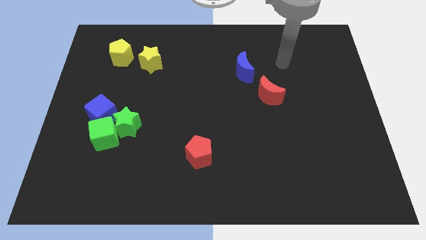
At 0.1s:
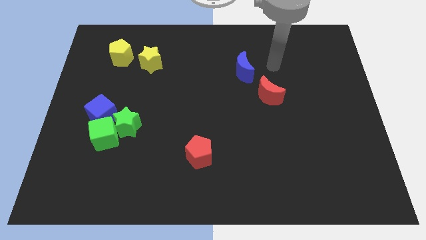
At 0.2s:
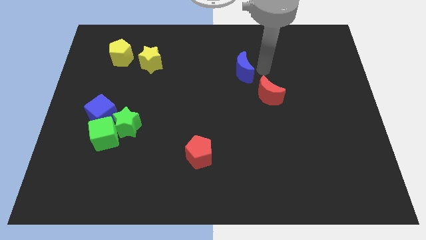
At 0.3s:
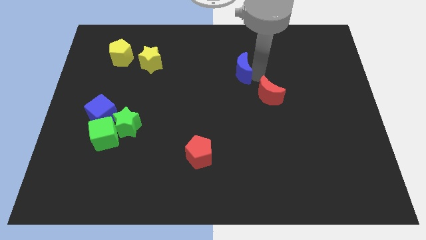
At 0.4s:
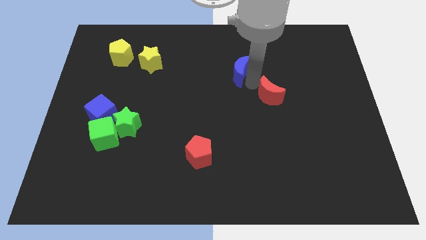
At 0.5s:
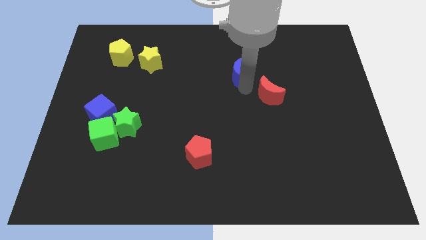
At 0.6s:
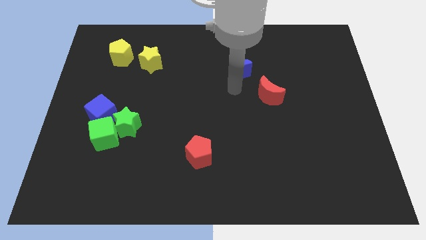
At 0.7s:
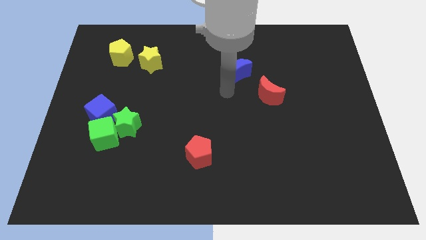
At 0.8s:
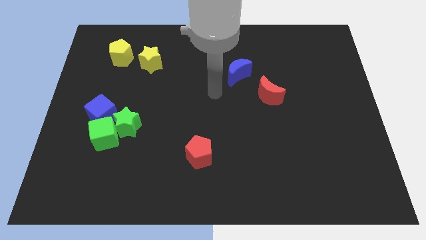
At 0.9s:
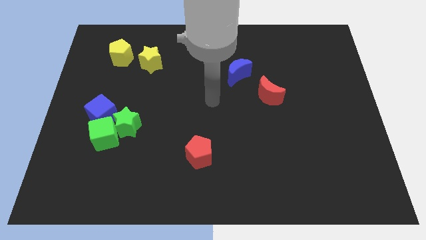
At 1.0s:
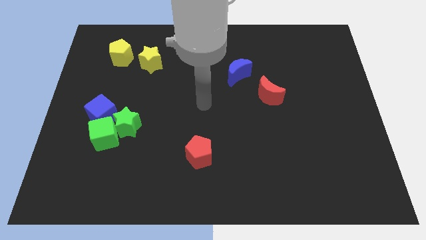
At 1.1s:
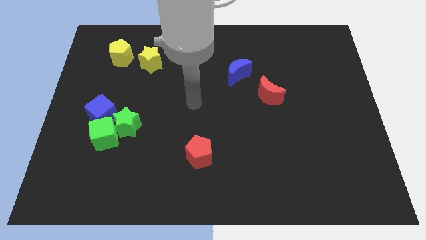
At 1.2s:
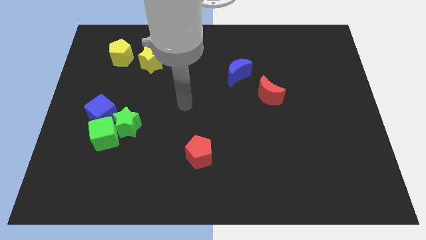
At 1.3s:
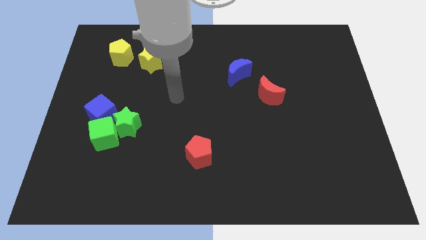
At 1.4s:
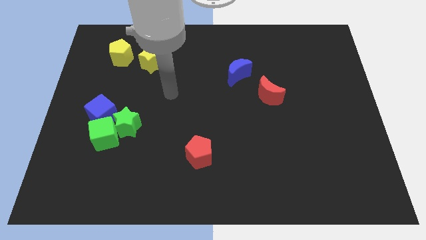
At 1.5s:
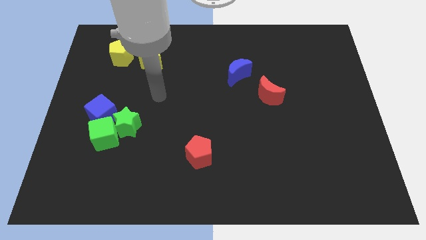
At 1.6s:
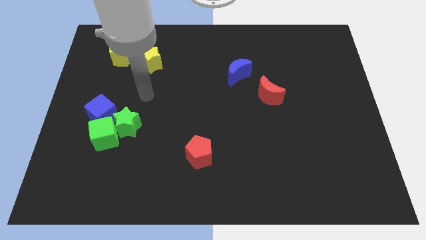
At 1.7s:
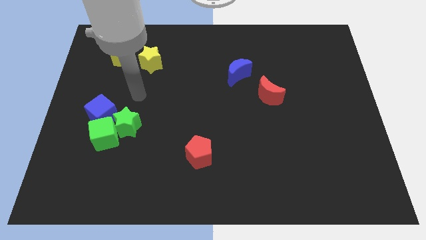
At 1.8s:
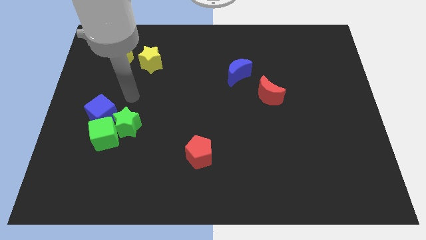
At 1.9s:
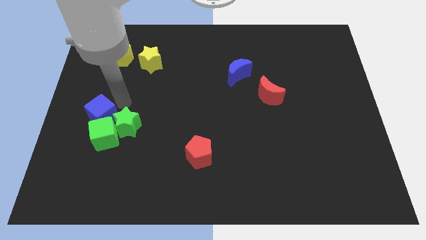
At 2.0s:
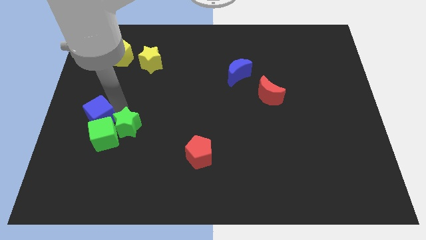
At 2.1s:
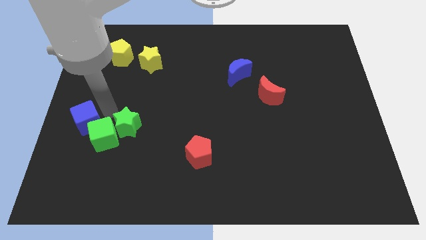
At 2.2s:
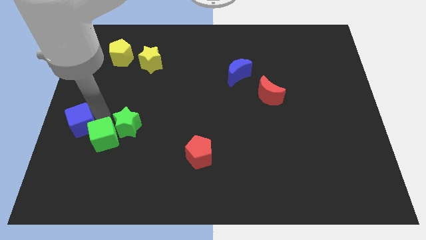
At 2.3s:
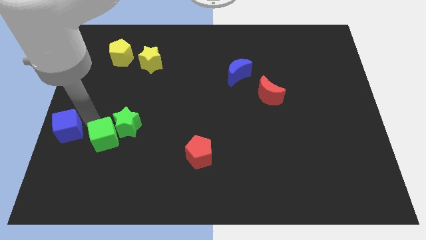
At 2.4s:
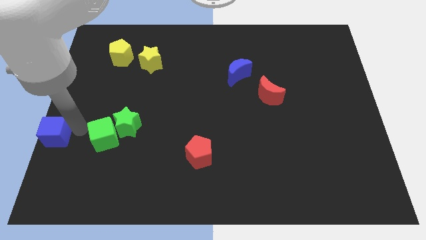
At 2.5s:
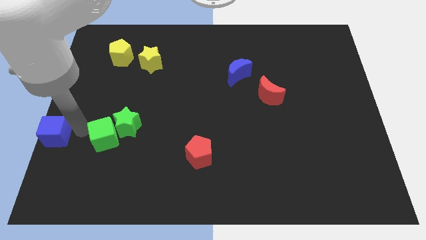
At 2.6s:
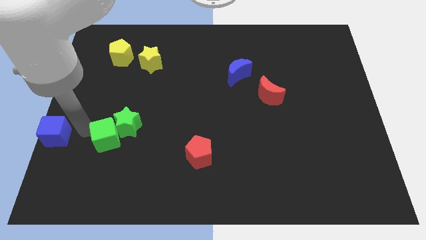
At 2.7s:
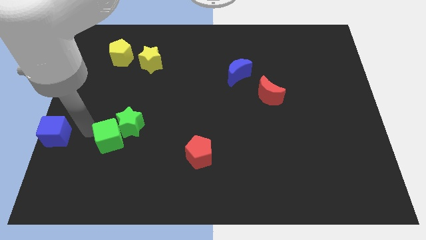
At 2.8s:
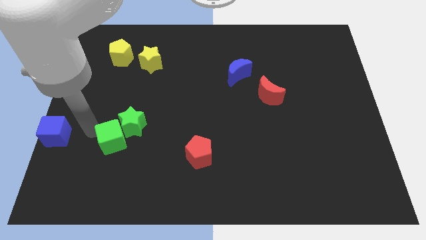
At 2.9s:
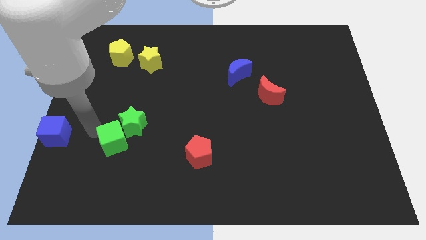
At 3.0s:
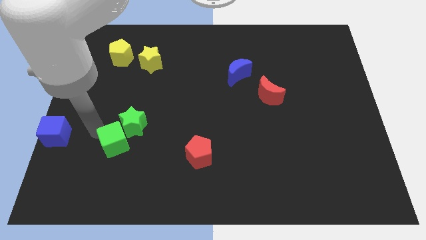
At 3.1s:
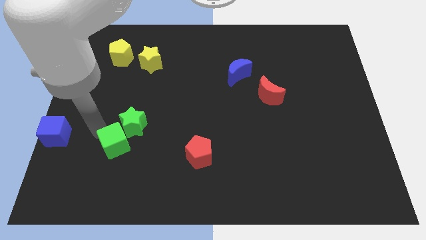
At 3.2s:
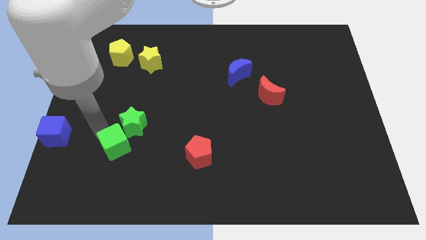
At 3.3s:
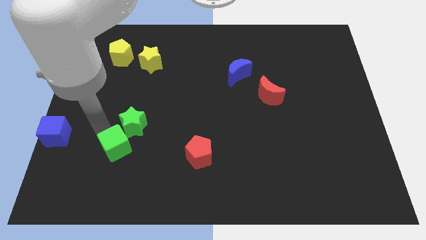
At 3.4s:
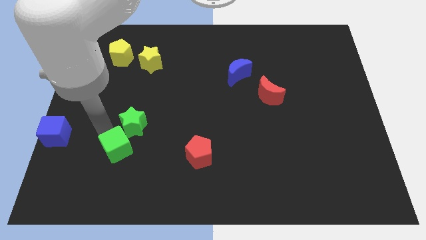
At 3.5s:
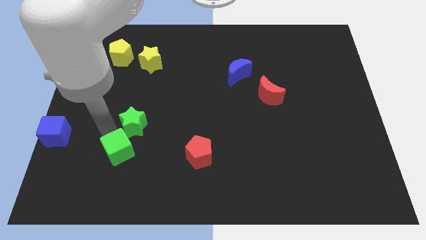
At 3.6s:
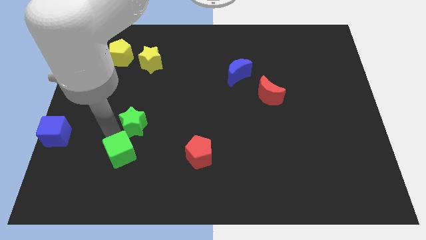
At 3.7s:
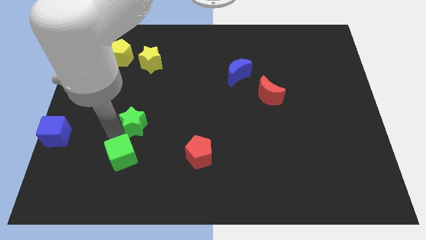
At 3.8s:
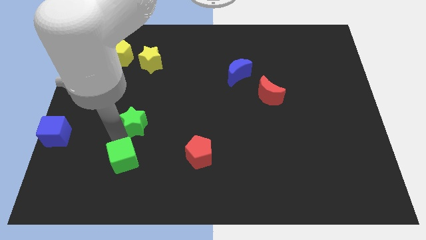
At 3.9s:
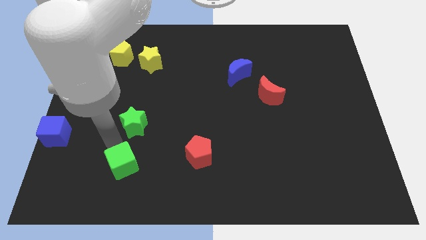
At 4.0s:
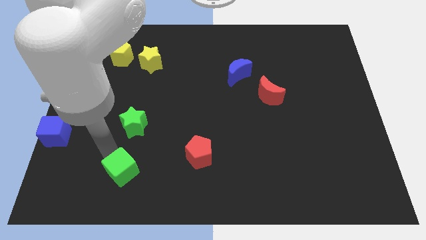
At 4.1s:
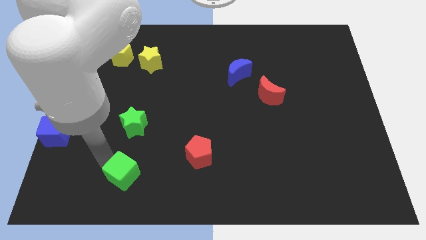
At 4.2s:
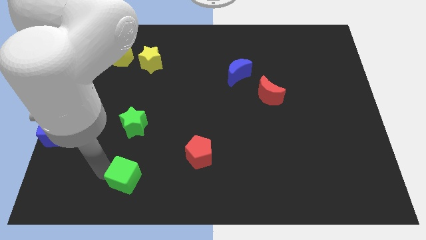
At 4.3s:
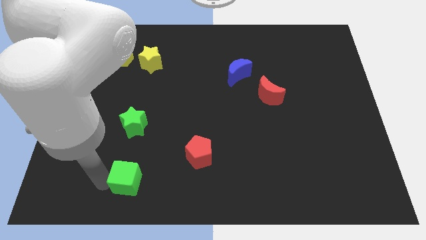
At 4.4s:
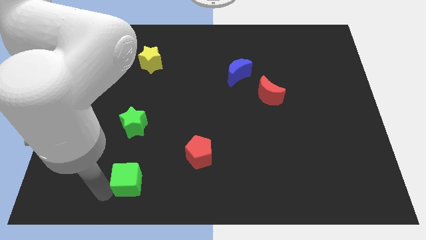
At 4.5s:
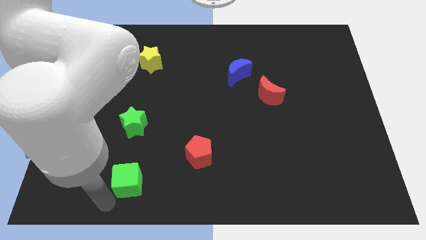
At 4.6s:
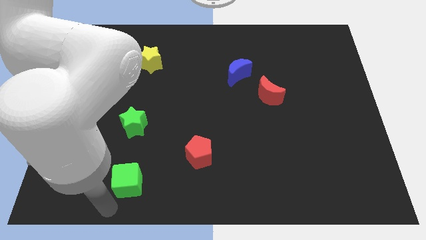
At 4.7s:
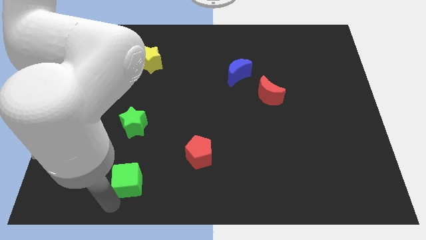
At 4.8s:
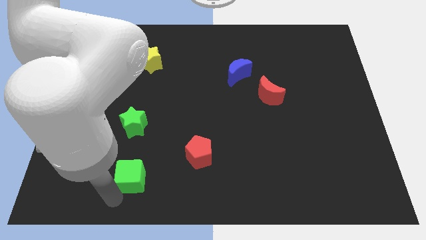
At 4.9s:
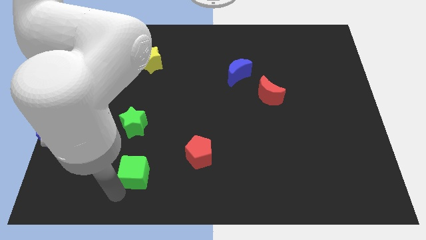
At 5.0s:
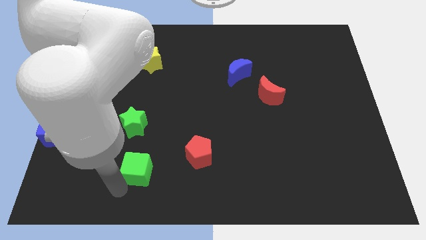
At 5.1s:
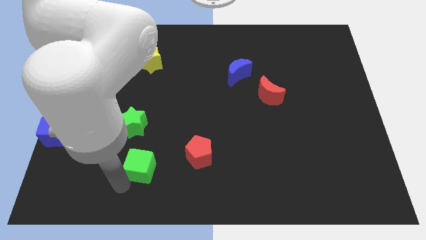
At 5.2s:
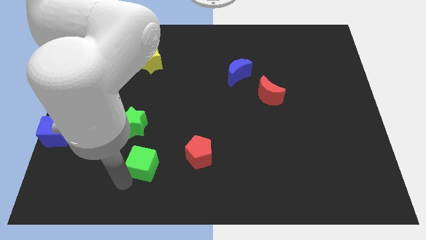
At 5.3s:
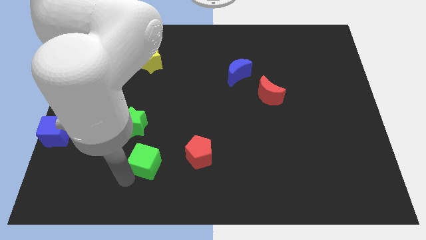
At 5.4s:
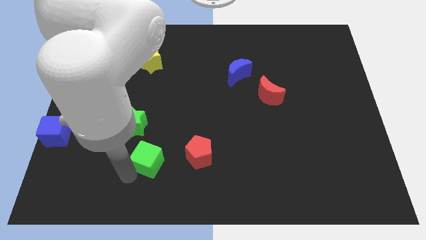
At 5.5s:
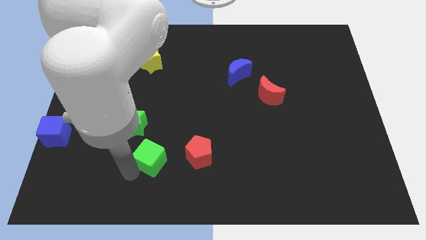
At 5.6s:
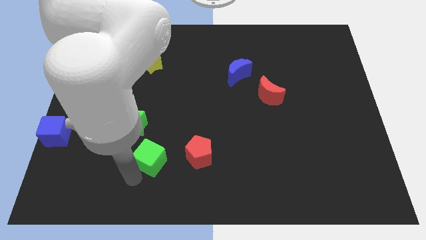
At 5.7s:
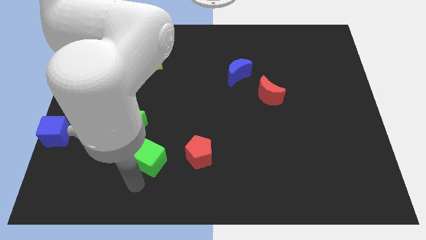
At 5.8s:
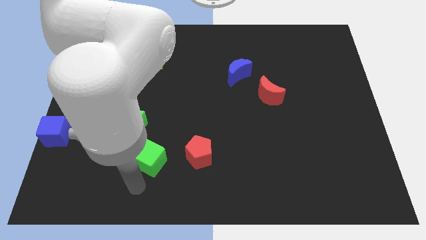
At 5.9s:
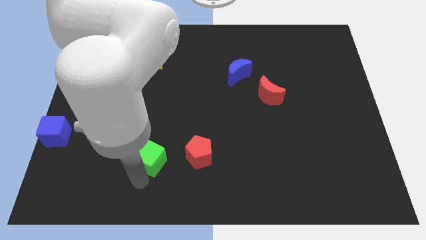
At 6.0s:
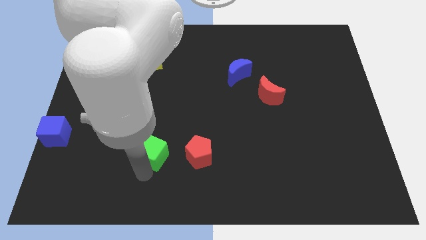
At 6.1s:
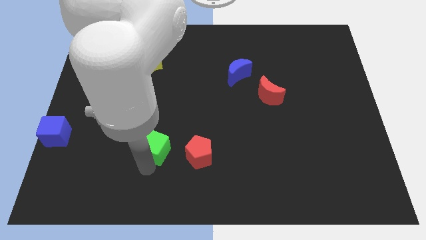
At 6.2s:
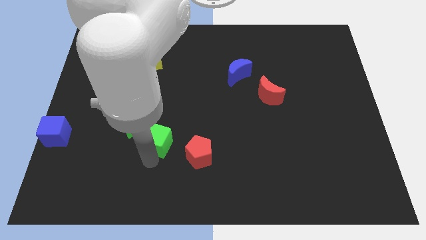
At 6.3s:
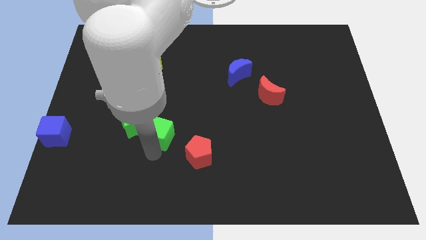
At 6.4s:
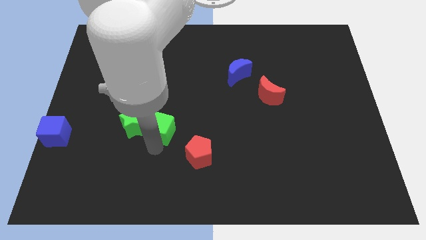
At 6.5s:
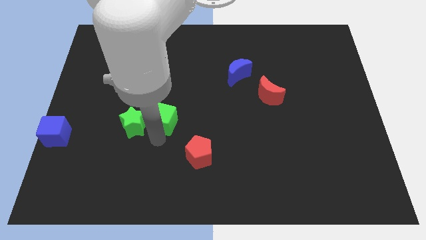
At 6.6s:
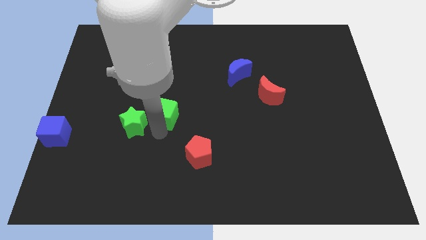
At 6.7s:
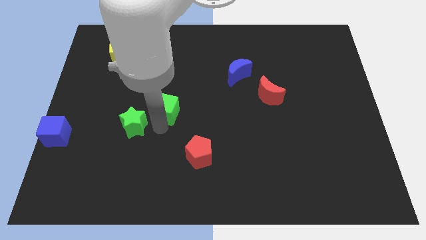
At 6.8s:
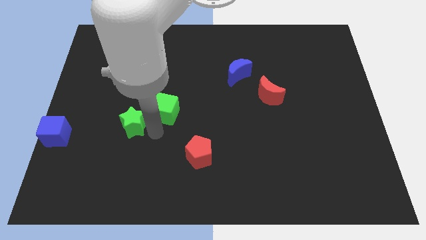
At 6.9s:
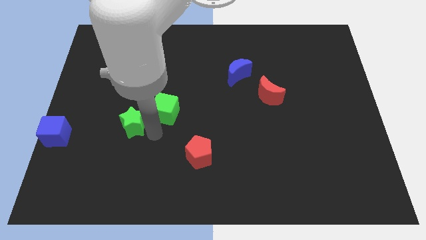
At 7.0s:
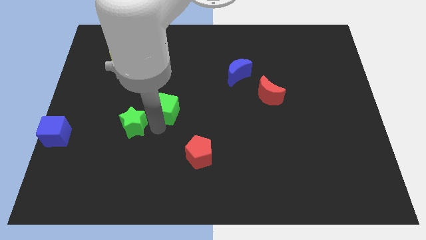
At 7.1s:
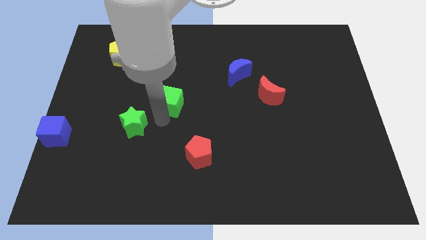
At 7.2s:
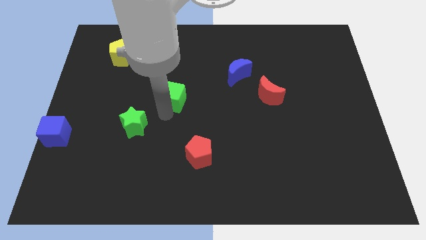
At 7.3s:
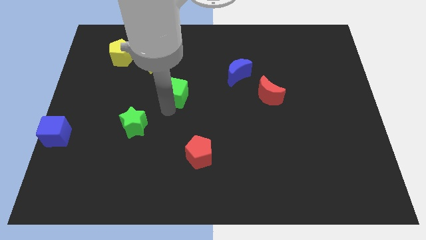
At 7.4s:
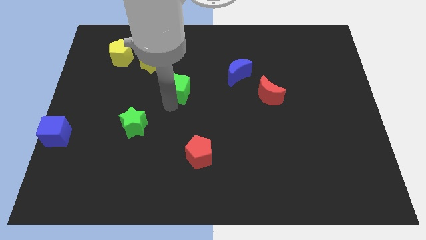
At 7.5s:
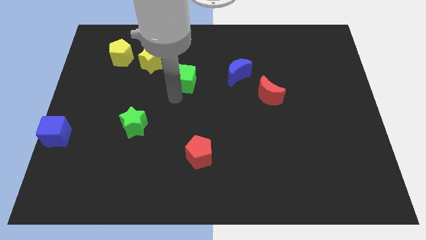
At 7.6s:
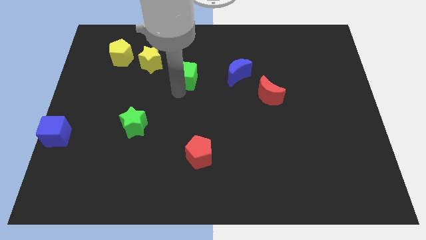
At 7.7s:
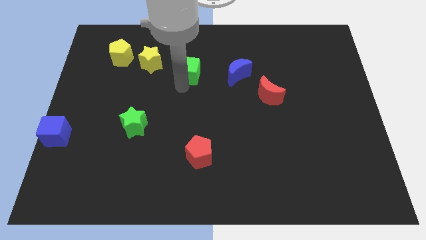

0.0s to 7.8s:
put the green cube right of the yellow star

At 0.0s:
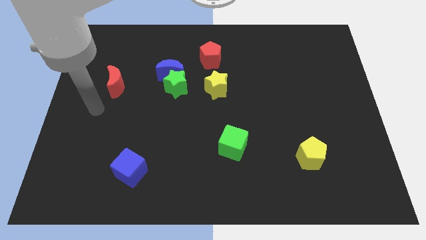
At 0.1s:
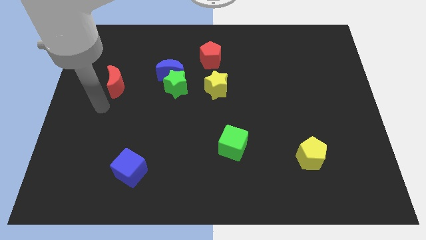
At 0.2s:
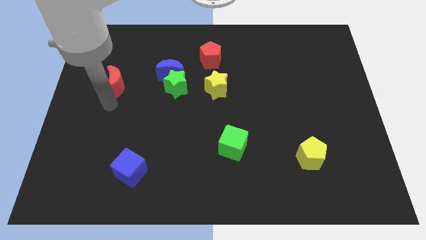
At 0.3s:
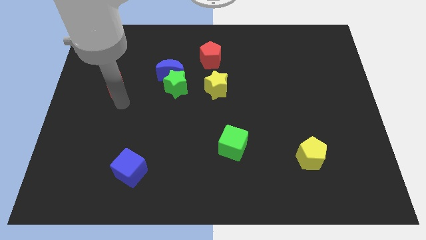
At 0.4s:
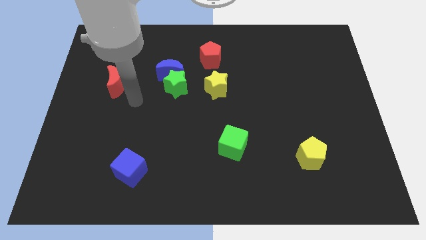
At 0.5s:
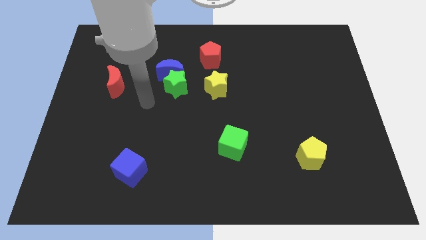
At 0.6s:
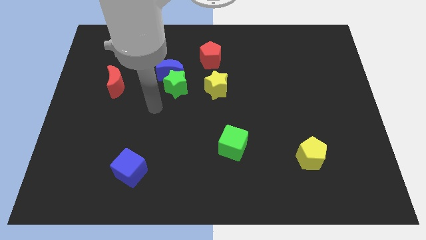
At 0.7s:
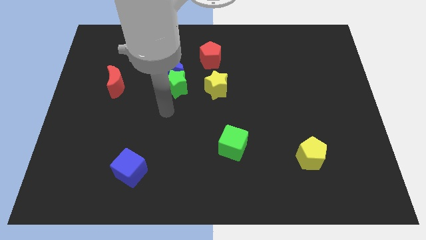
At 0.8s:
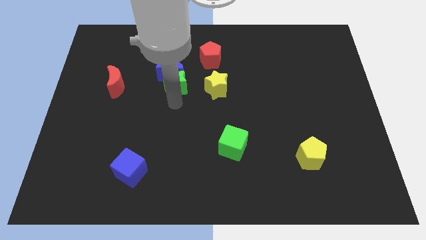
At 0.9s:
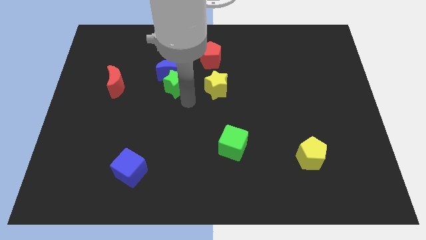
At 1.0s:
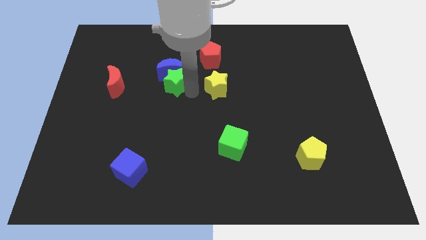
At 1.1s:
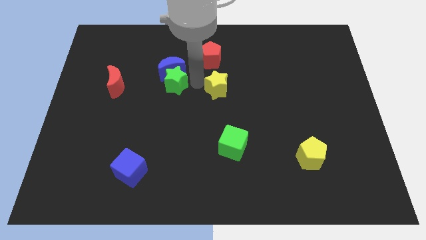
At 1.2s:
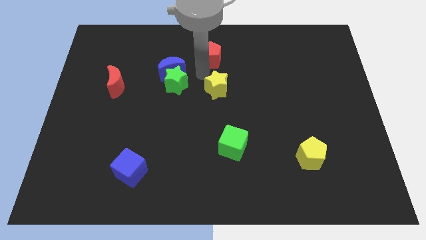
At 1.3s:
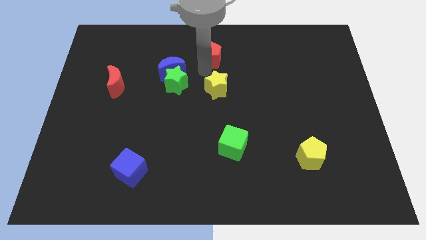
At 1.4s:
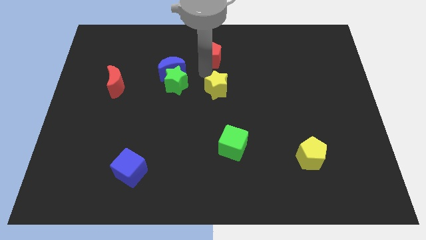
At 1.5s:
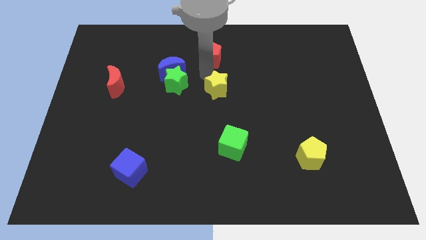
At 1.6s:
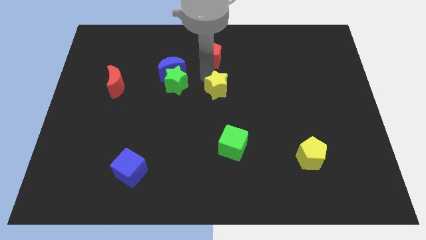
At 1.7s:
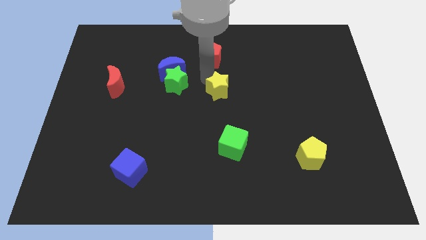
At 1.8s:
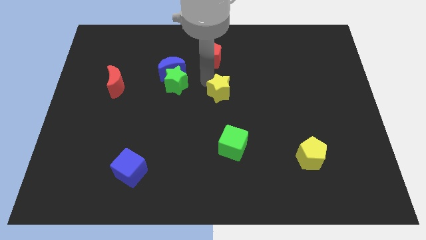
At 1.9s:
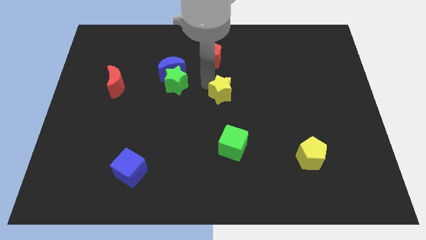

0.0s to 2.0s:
slide the yellow star above the green cube
